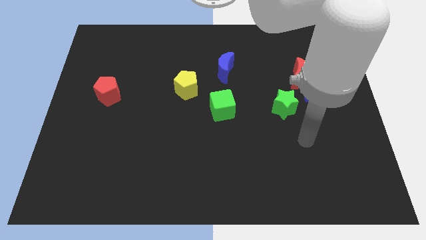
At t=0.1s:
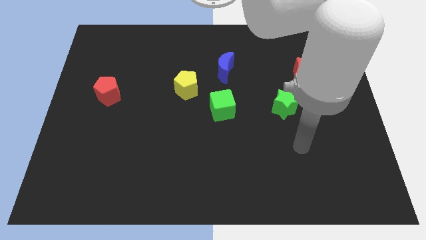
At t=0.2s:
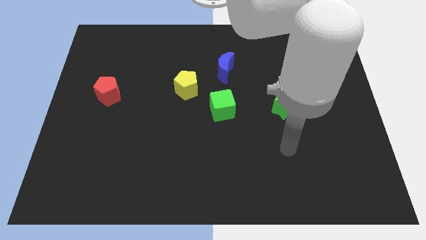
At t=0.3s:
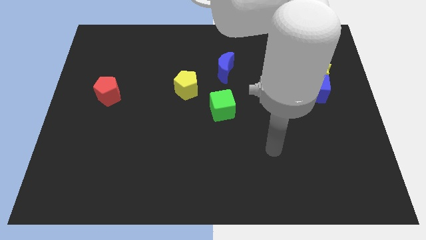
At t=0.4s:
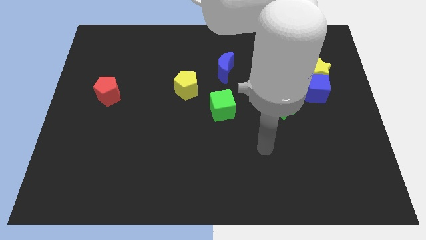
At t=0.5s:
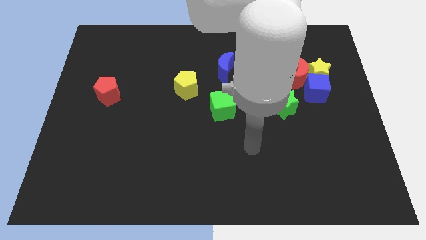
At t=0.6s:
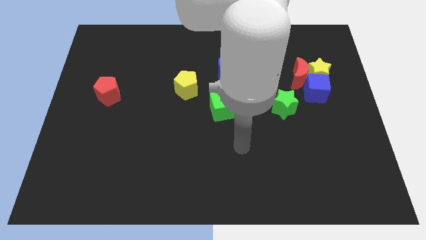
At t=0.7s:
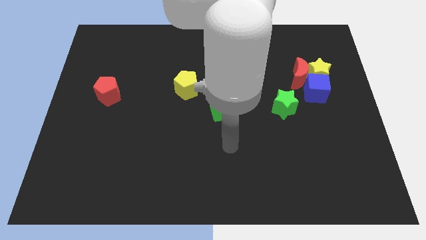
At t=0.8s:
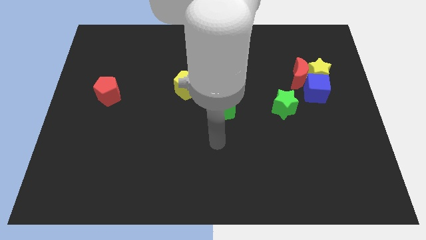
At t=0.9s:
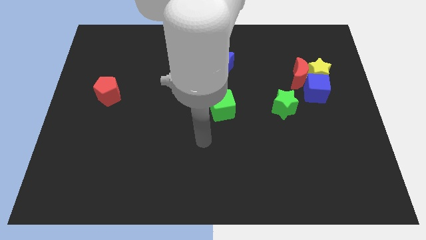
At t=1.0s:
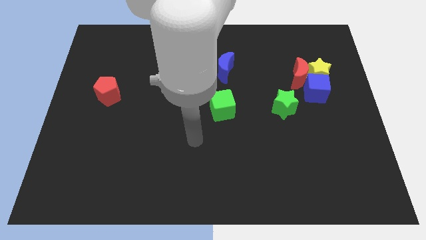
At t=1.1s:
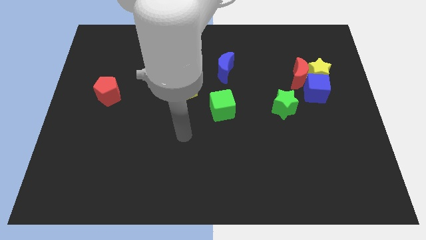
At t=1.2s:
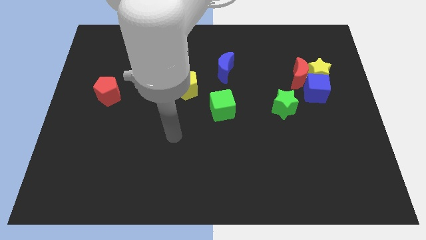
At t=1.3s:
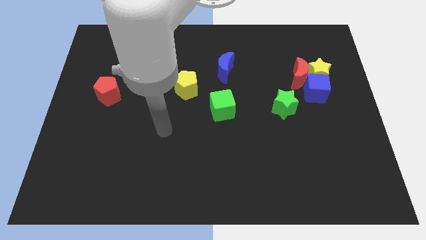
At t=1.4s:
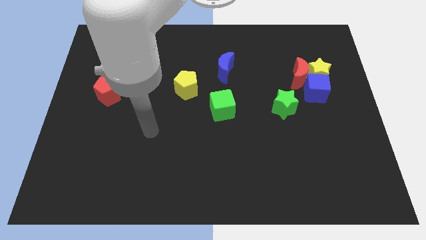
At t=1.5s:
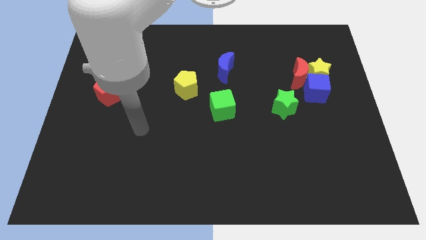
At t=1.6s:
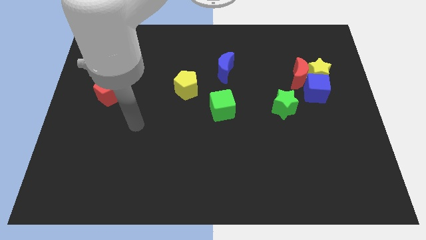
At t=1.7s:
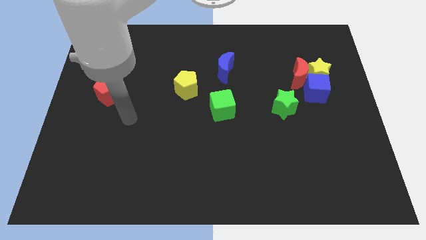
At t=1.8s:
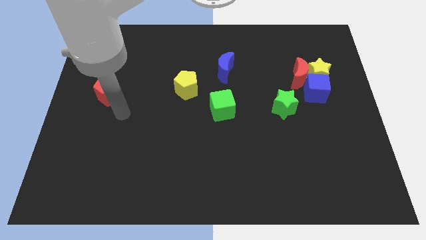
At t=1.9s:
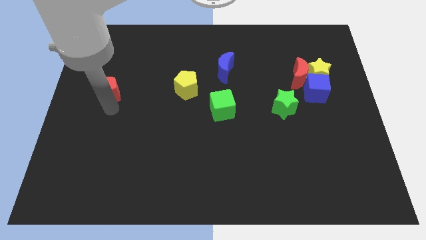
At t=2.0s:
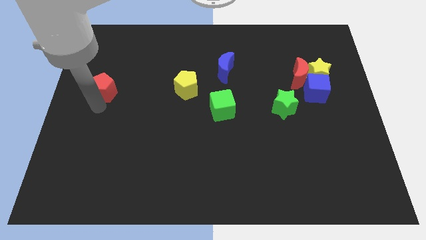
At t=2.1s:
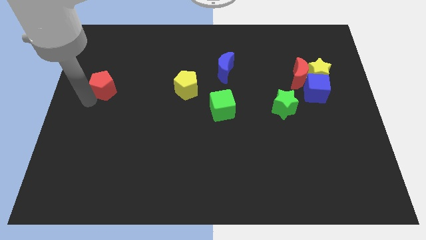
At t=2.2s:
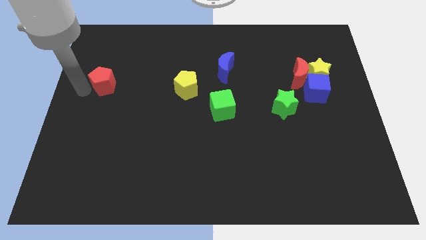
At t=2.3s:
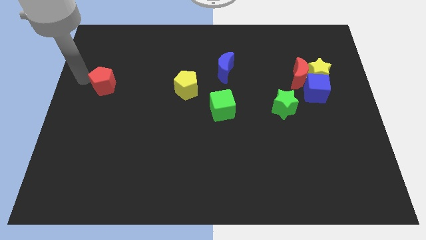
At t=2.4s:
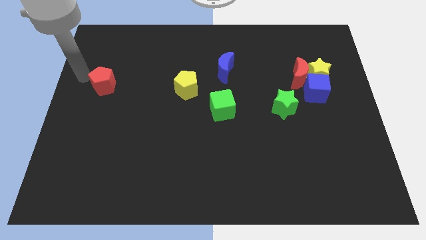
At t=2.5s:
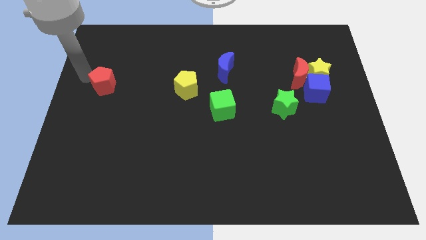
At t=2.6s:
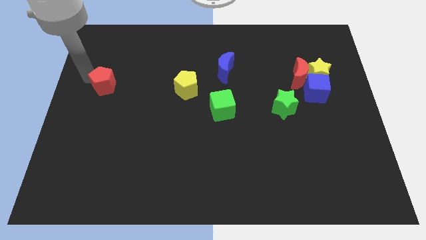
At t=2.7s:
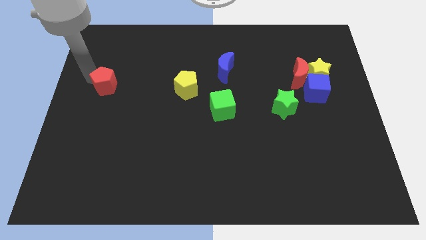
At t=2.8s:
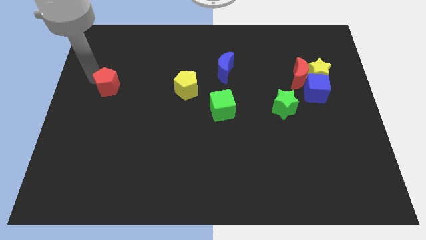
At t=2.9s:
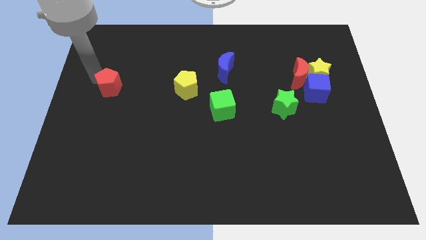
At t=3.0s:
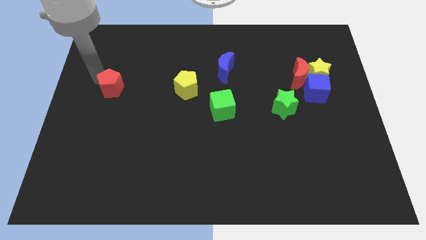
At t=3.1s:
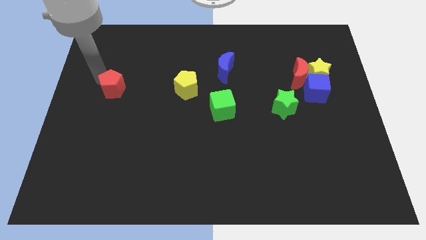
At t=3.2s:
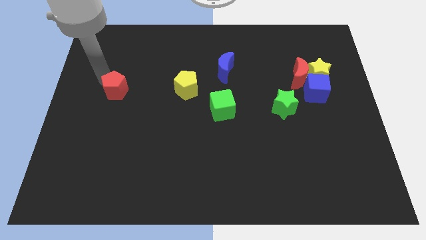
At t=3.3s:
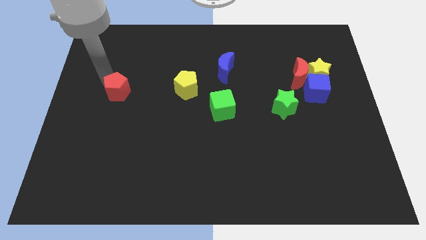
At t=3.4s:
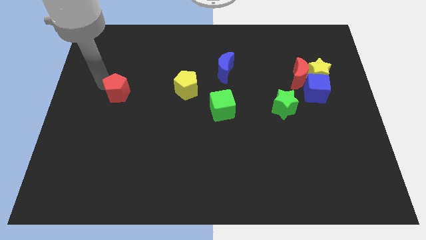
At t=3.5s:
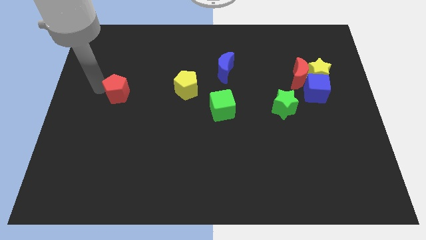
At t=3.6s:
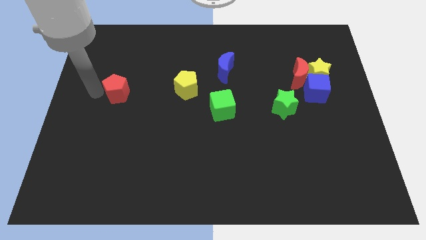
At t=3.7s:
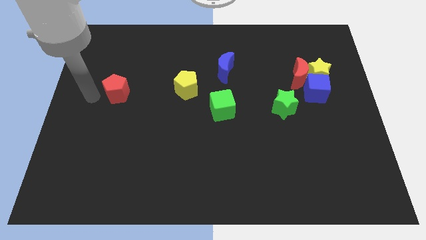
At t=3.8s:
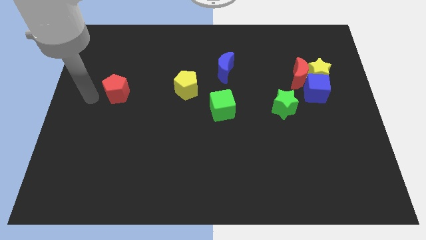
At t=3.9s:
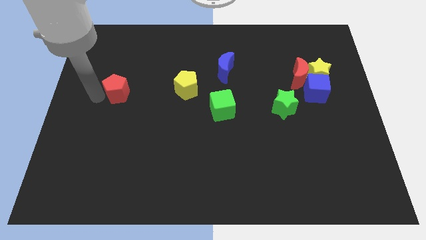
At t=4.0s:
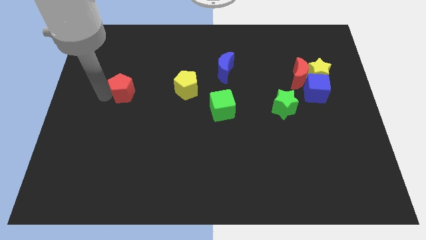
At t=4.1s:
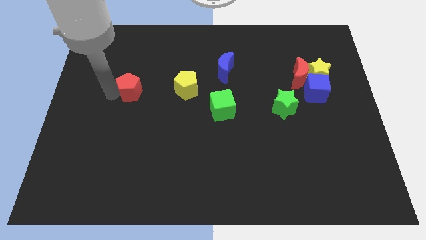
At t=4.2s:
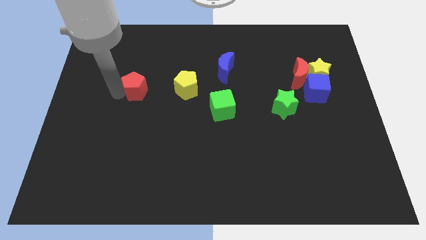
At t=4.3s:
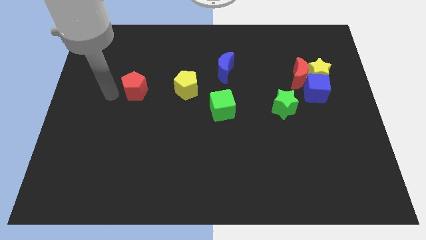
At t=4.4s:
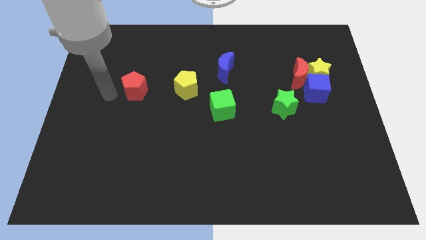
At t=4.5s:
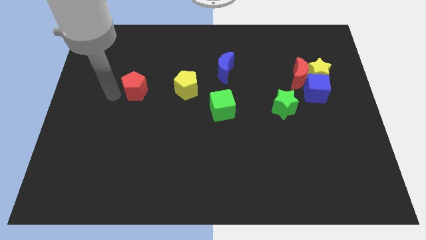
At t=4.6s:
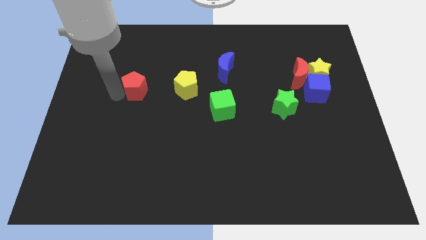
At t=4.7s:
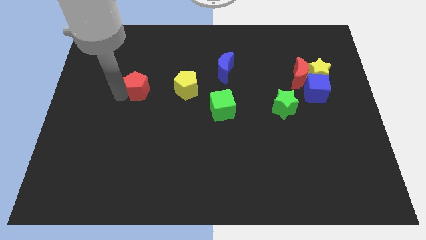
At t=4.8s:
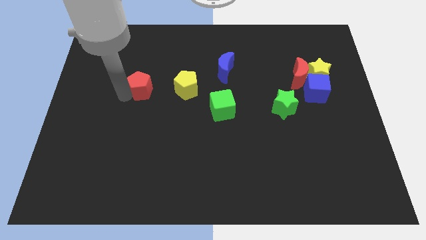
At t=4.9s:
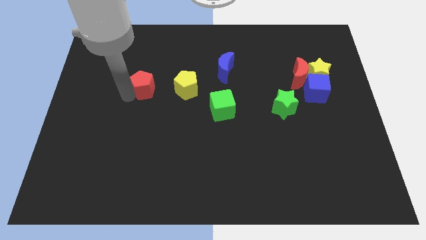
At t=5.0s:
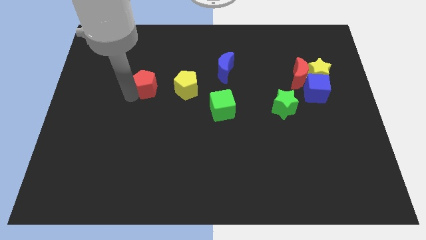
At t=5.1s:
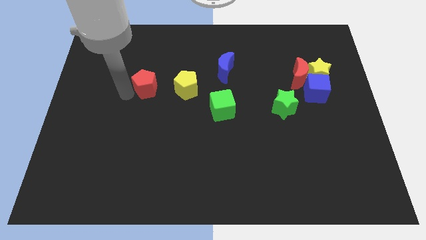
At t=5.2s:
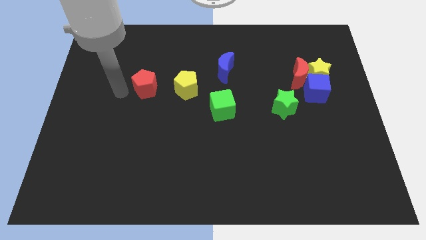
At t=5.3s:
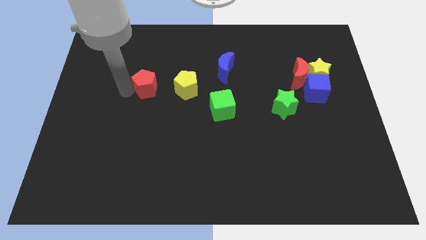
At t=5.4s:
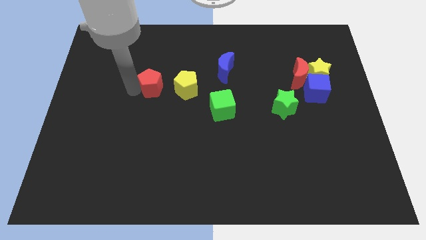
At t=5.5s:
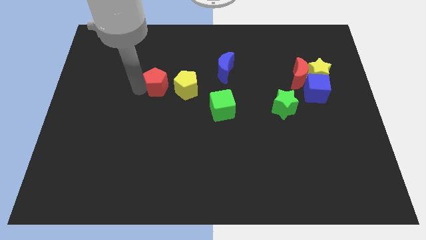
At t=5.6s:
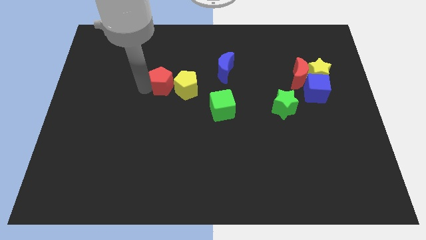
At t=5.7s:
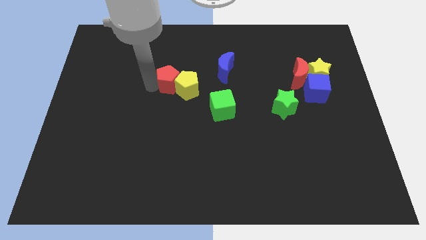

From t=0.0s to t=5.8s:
slide the red pentagon to the yellow pentagon

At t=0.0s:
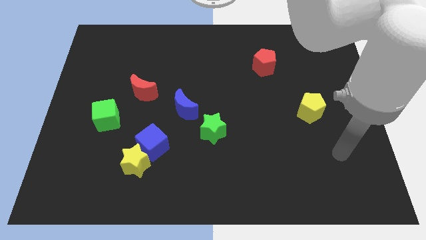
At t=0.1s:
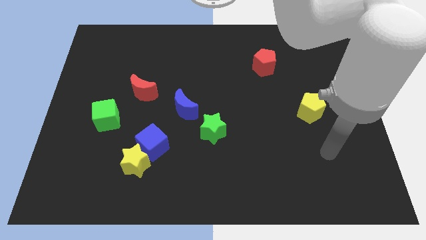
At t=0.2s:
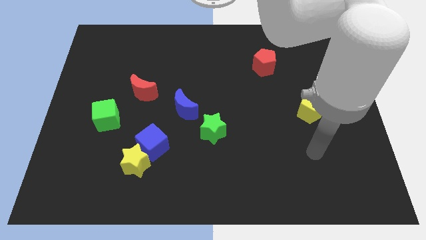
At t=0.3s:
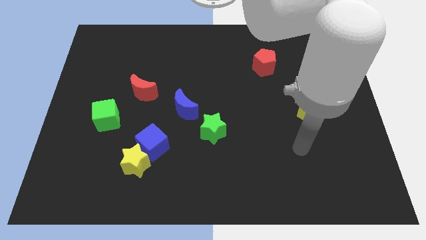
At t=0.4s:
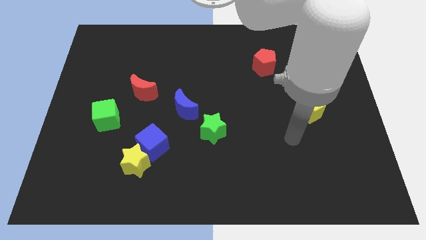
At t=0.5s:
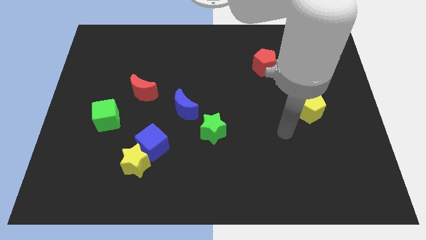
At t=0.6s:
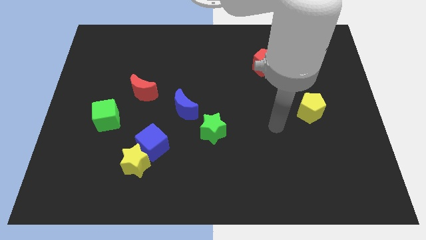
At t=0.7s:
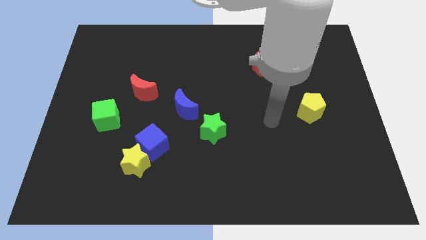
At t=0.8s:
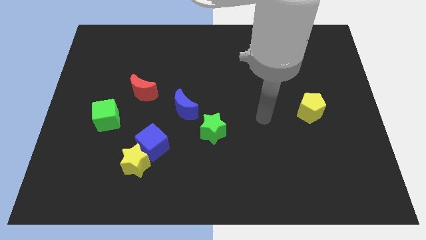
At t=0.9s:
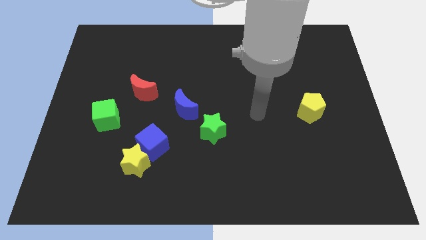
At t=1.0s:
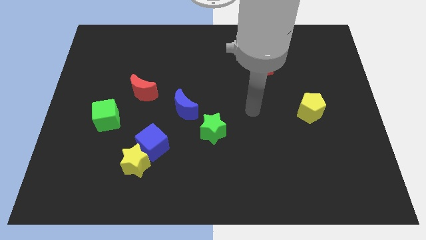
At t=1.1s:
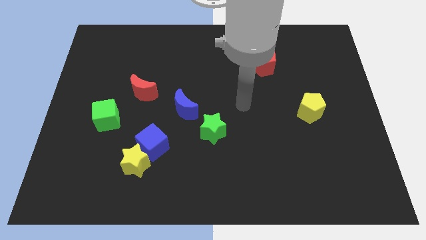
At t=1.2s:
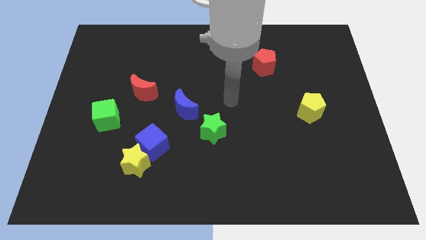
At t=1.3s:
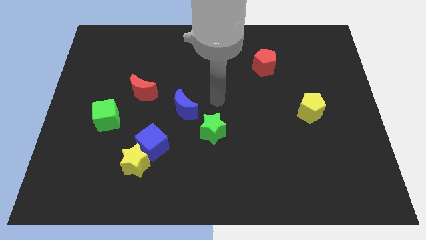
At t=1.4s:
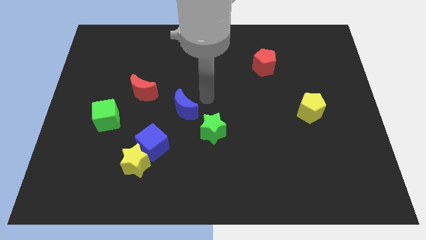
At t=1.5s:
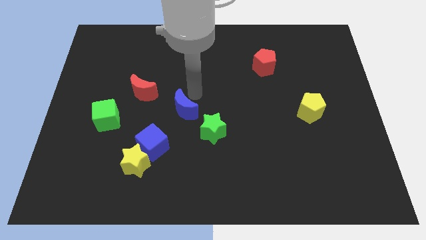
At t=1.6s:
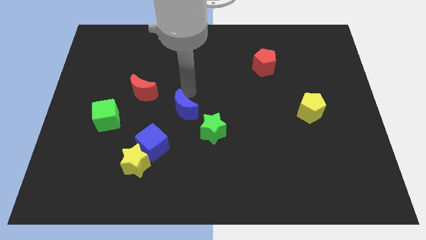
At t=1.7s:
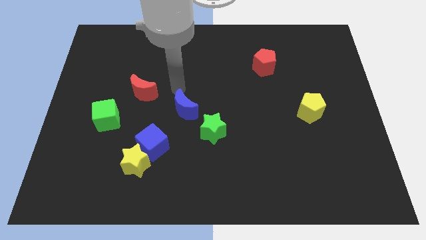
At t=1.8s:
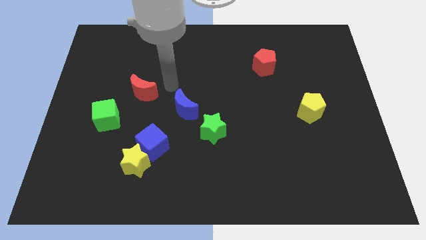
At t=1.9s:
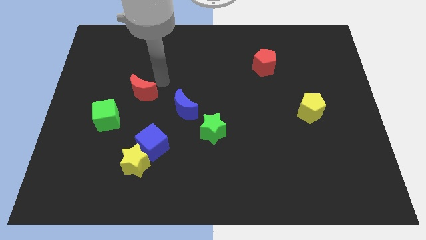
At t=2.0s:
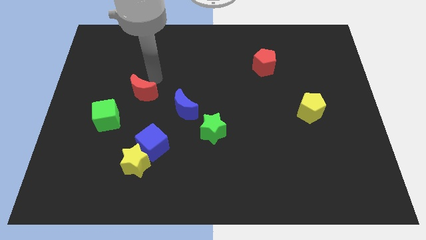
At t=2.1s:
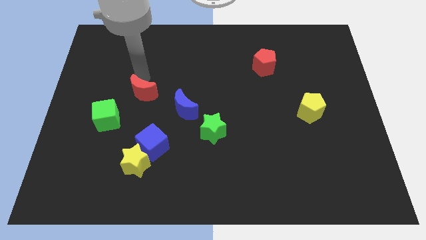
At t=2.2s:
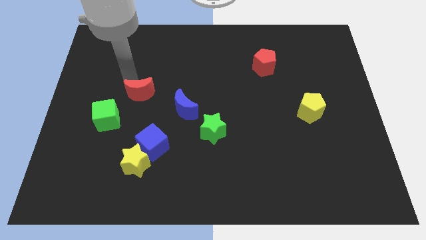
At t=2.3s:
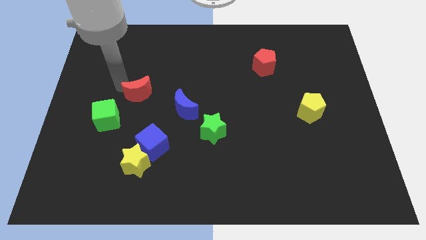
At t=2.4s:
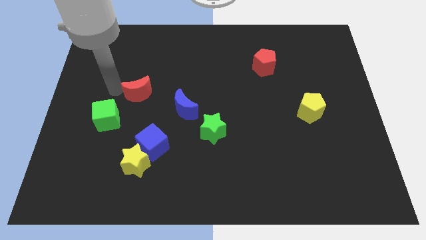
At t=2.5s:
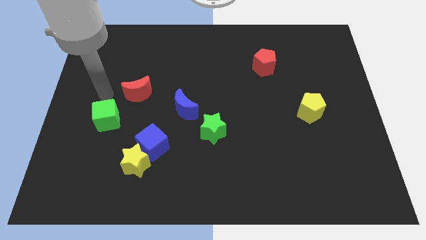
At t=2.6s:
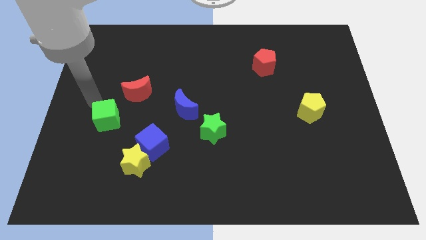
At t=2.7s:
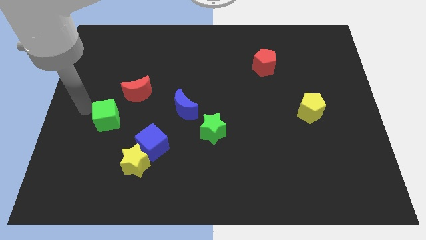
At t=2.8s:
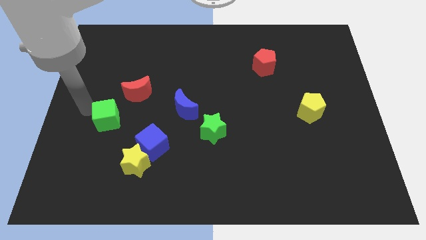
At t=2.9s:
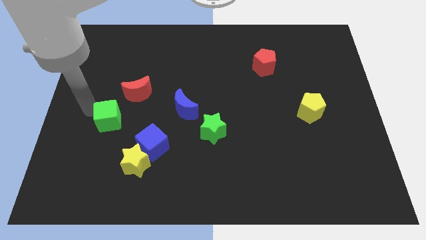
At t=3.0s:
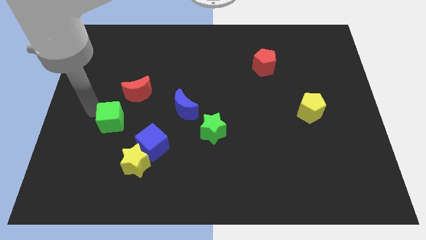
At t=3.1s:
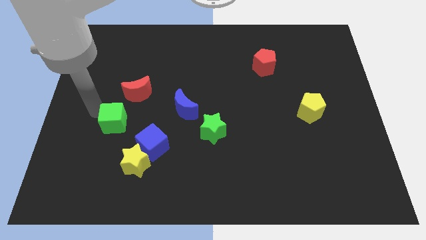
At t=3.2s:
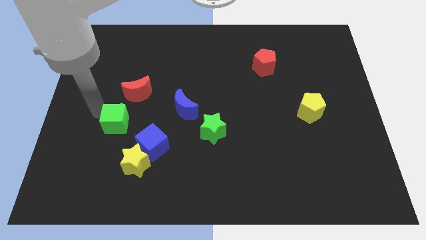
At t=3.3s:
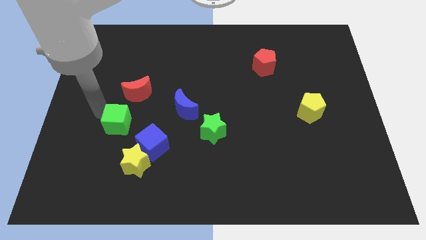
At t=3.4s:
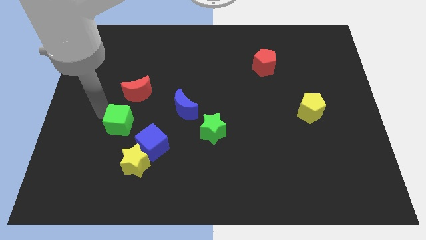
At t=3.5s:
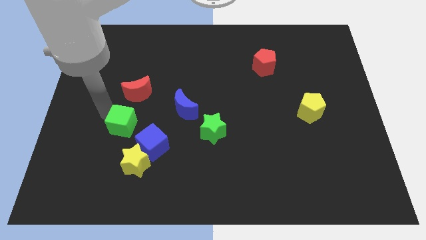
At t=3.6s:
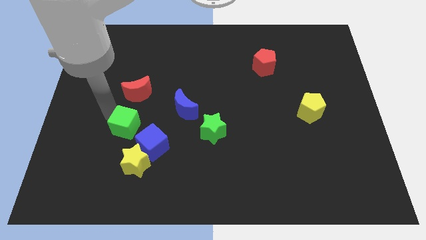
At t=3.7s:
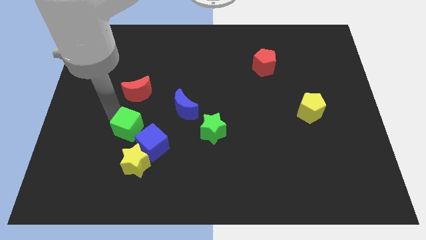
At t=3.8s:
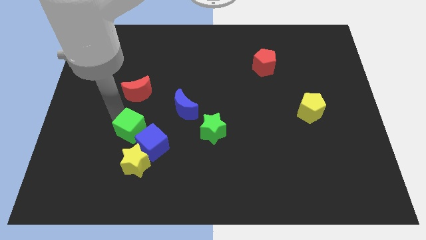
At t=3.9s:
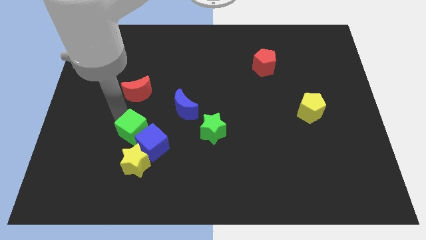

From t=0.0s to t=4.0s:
slide the green cube next to the blue cube
